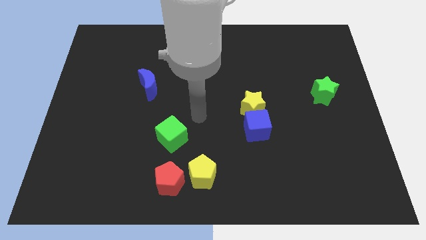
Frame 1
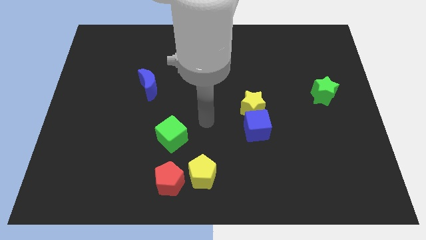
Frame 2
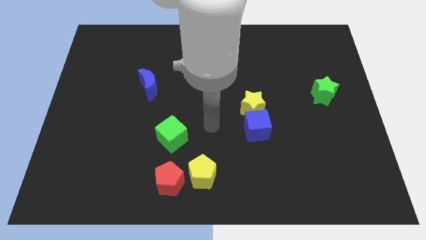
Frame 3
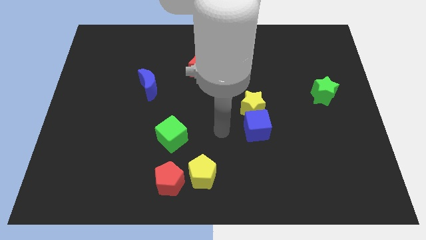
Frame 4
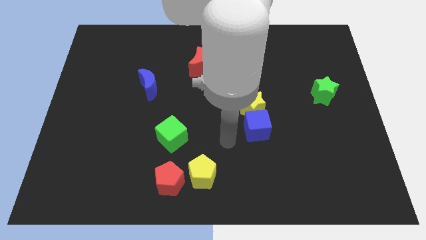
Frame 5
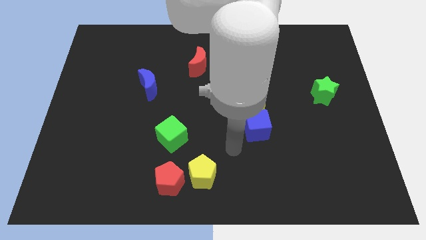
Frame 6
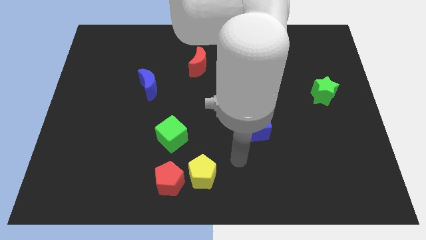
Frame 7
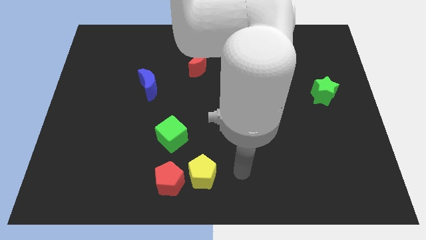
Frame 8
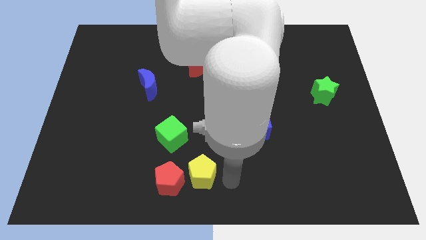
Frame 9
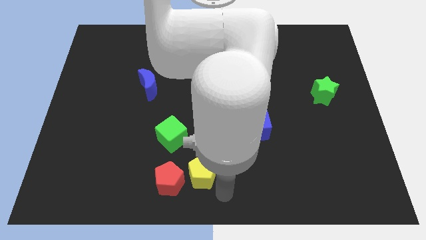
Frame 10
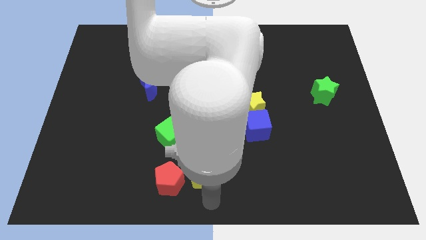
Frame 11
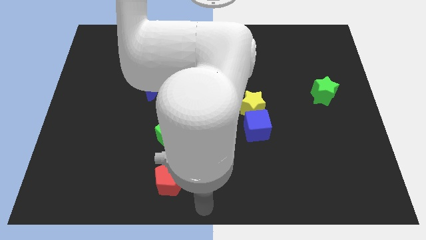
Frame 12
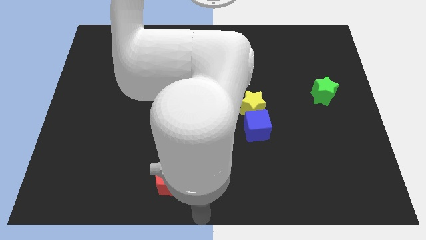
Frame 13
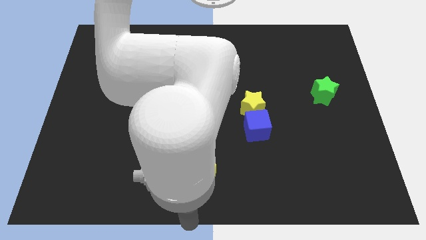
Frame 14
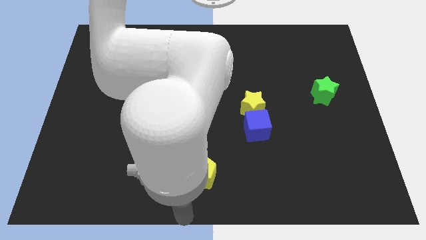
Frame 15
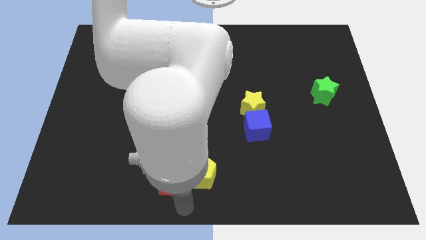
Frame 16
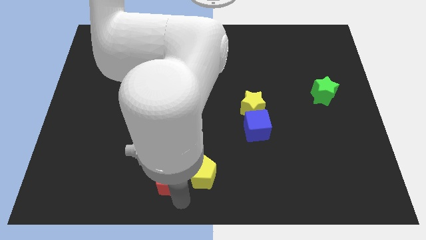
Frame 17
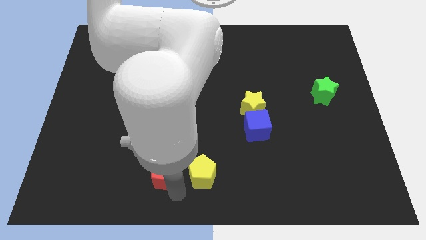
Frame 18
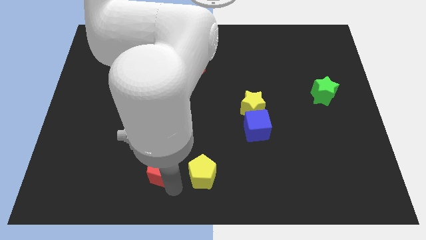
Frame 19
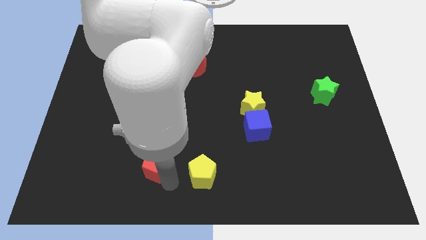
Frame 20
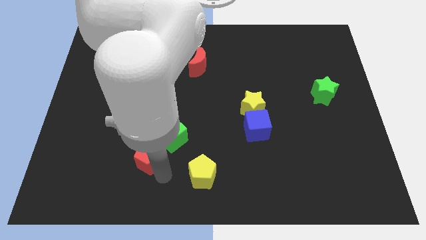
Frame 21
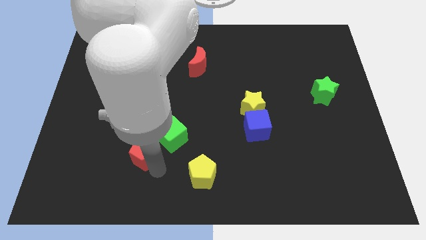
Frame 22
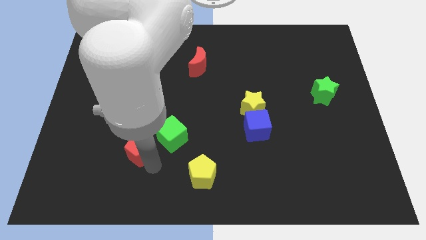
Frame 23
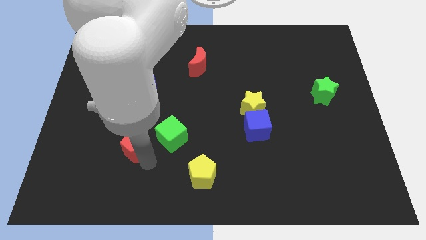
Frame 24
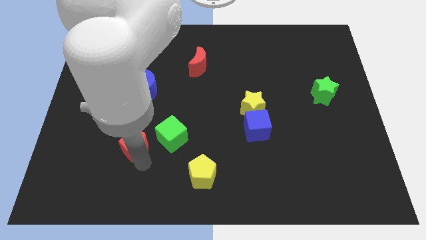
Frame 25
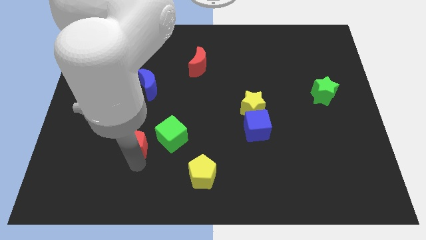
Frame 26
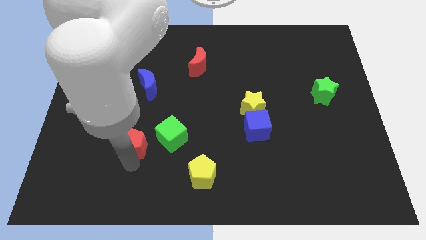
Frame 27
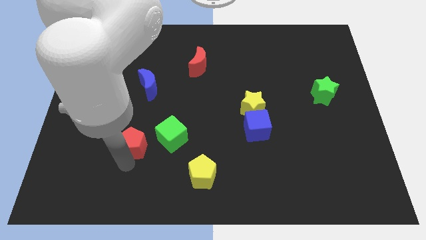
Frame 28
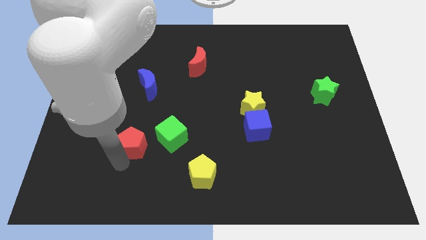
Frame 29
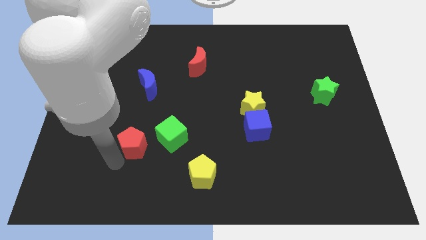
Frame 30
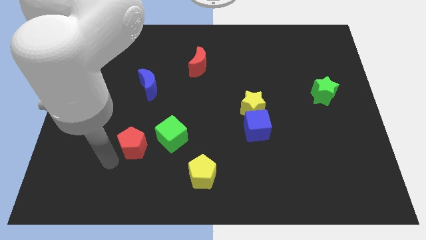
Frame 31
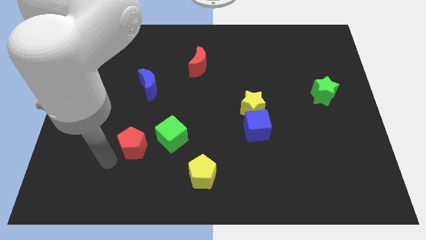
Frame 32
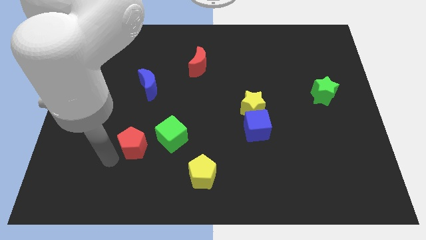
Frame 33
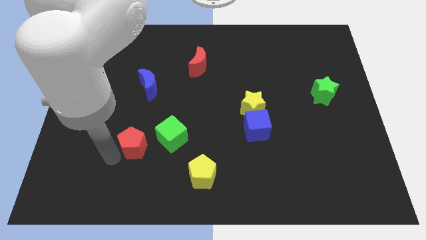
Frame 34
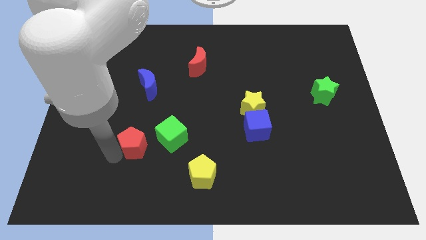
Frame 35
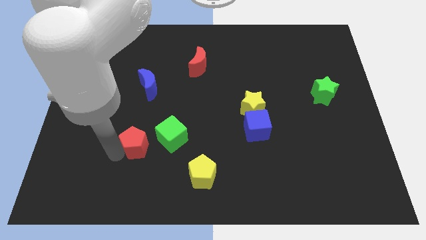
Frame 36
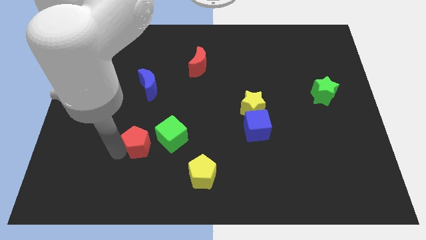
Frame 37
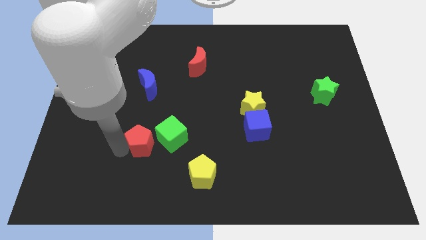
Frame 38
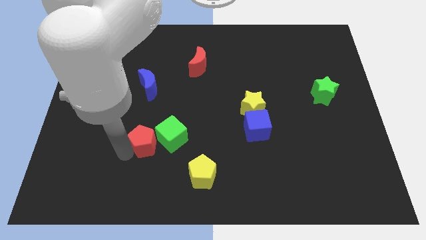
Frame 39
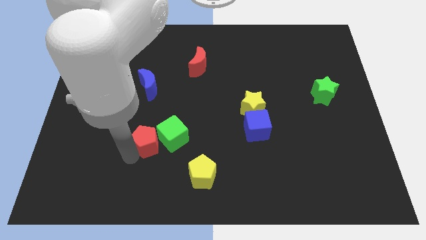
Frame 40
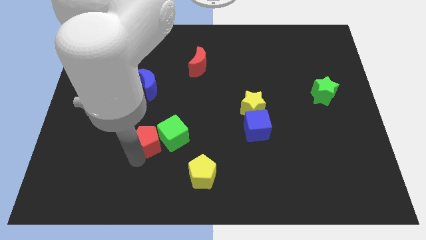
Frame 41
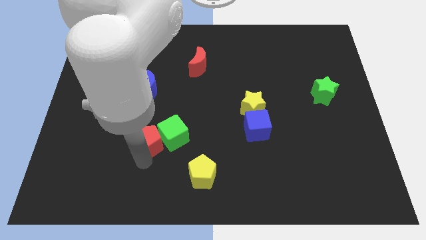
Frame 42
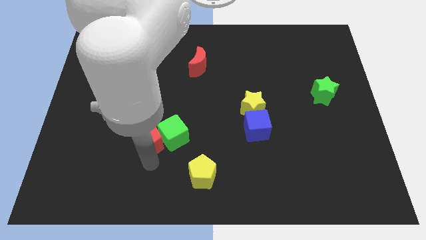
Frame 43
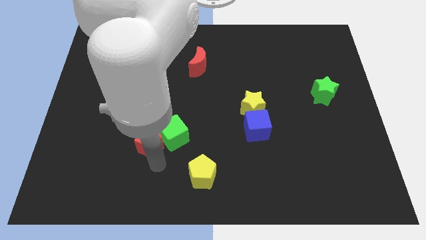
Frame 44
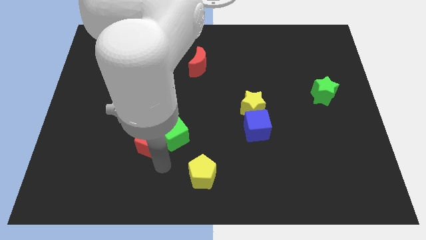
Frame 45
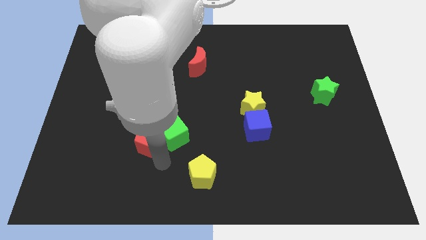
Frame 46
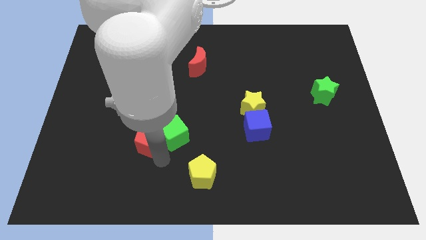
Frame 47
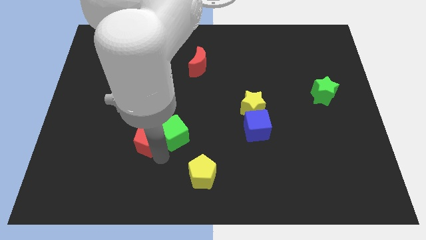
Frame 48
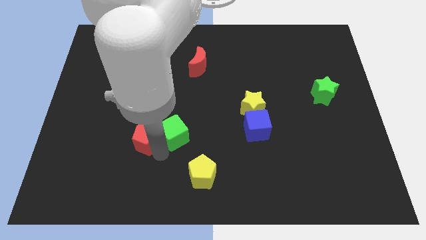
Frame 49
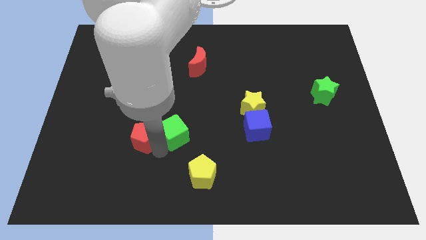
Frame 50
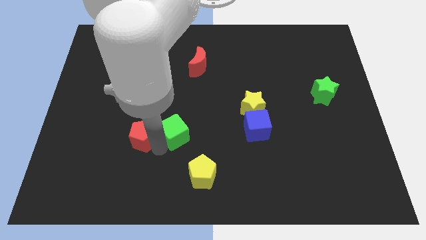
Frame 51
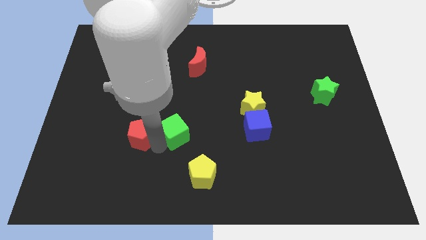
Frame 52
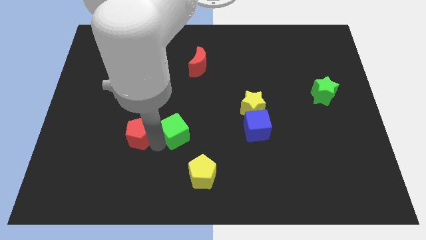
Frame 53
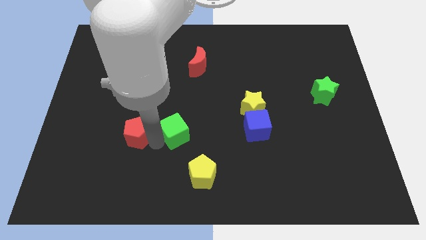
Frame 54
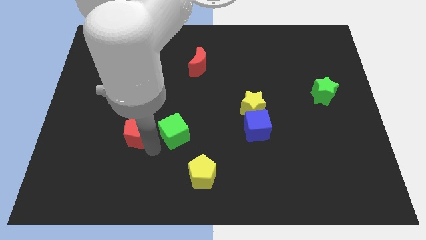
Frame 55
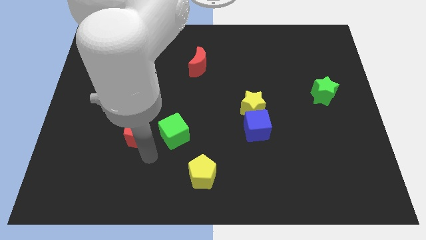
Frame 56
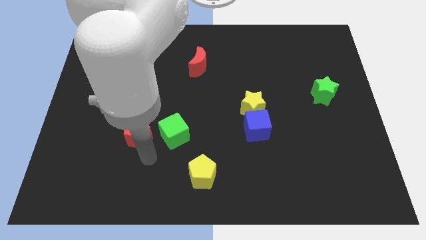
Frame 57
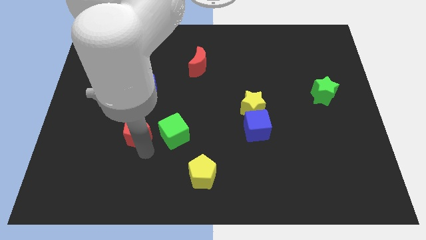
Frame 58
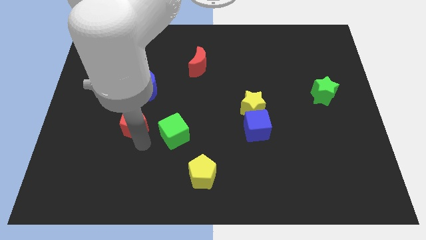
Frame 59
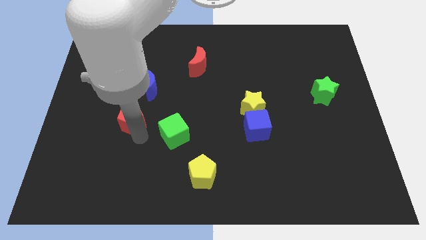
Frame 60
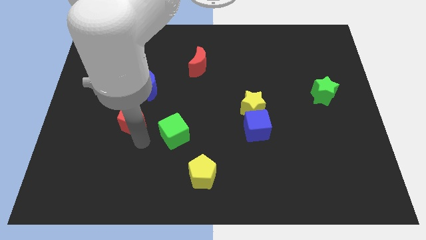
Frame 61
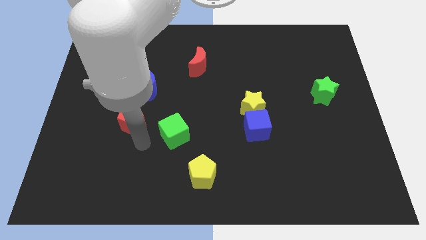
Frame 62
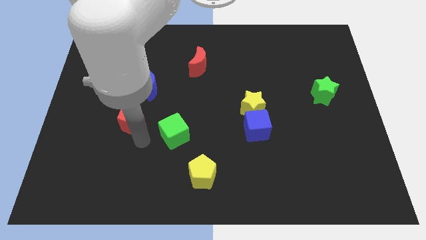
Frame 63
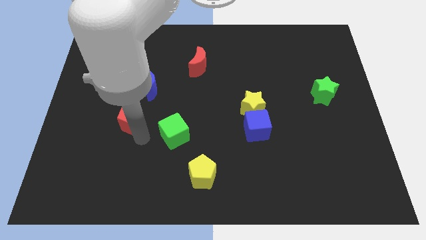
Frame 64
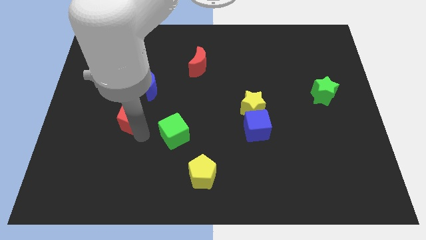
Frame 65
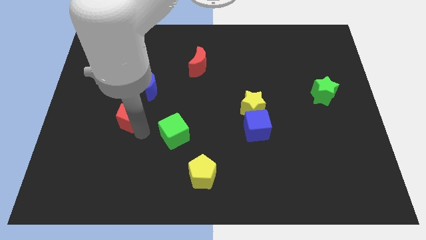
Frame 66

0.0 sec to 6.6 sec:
slide the red pentagon to the bottom left of the blue moon

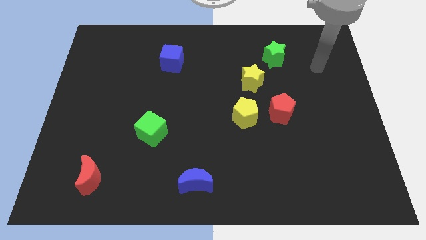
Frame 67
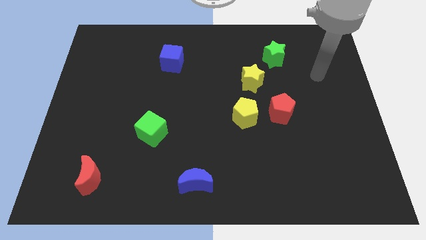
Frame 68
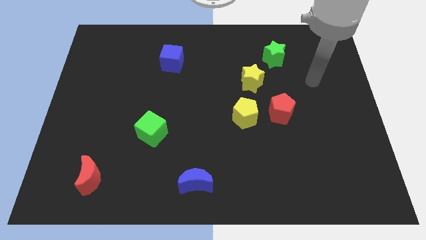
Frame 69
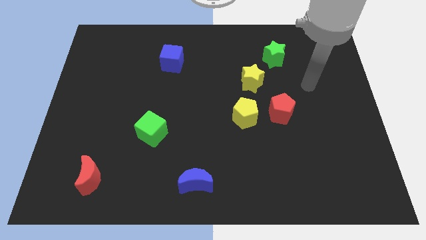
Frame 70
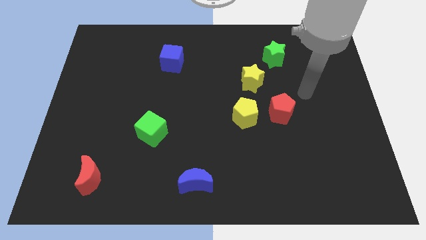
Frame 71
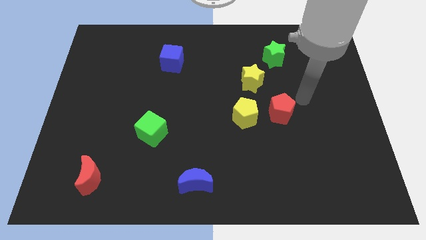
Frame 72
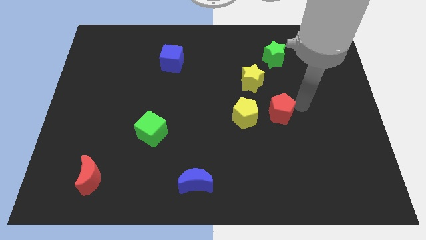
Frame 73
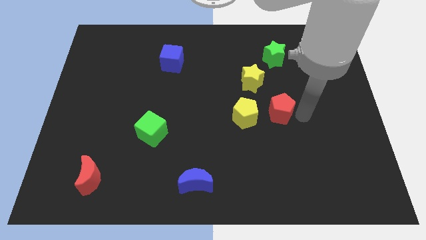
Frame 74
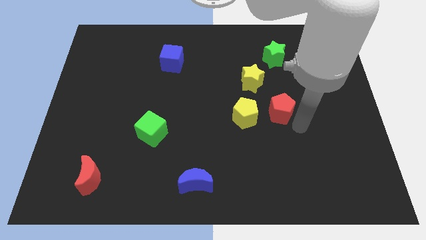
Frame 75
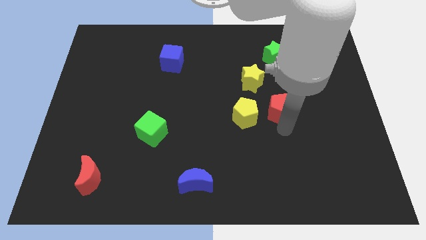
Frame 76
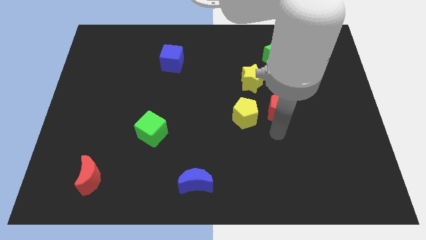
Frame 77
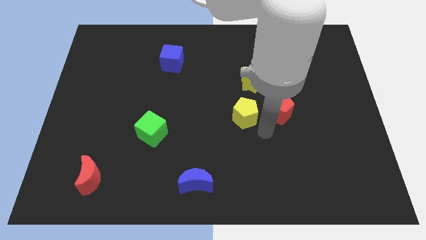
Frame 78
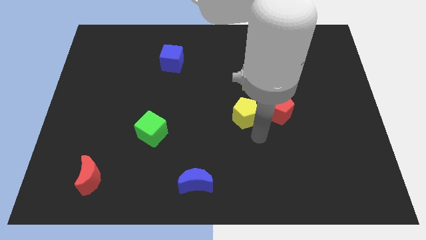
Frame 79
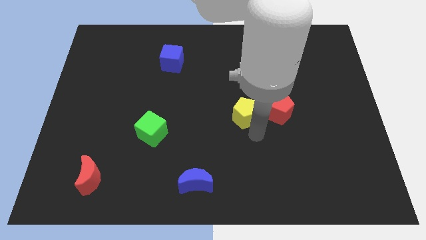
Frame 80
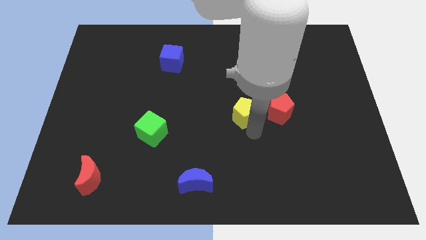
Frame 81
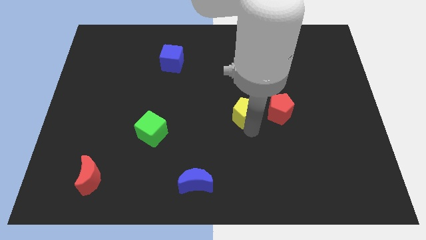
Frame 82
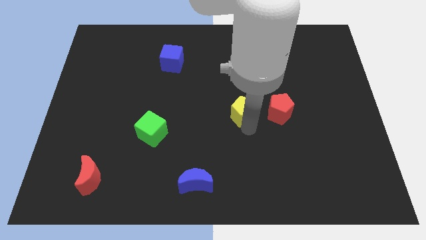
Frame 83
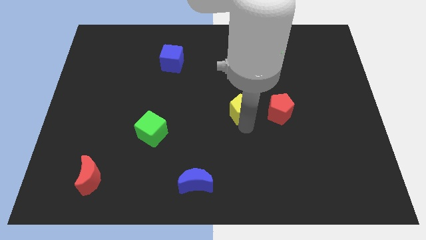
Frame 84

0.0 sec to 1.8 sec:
put the yellow pentagon diagonally down and to the left of the yellow star
